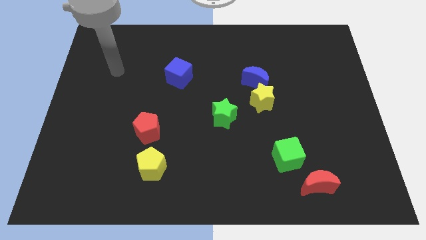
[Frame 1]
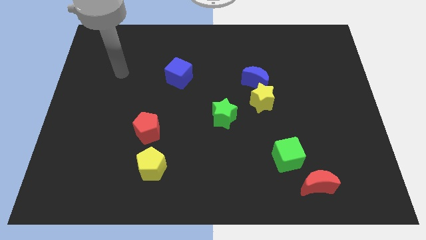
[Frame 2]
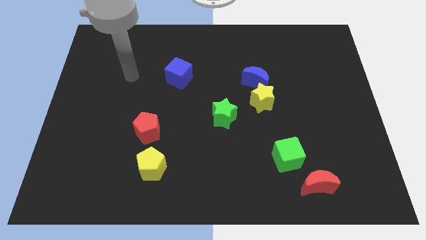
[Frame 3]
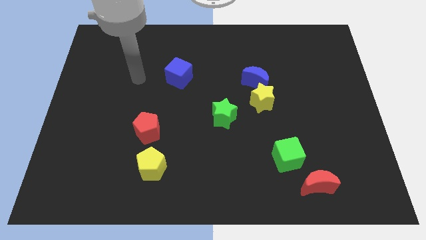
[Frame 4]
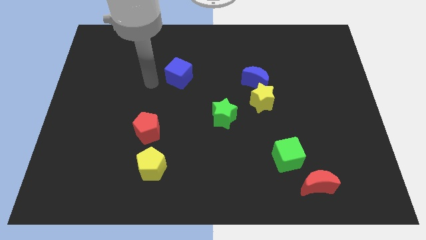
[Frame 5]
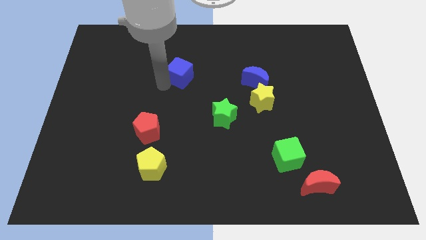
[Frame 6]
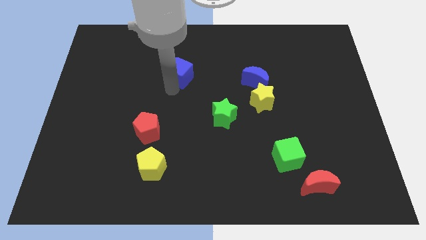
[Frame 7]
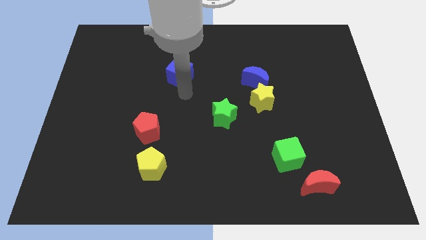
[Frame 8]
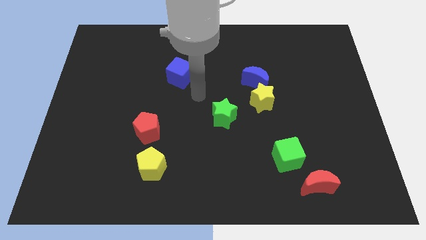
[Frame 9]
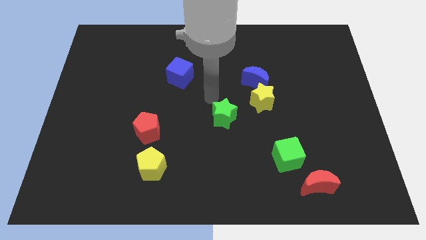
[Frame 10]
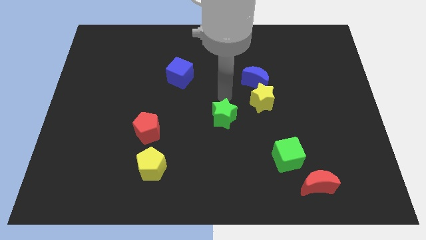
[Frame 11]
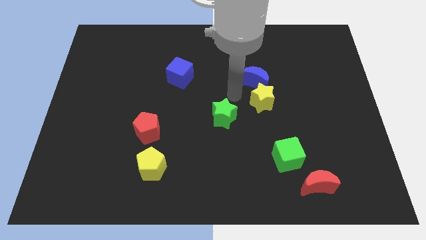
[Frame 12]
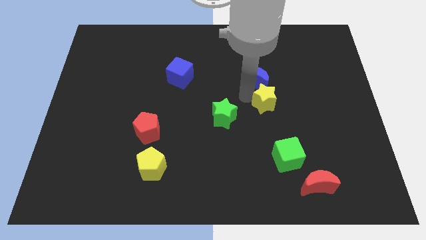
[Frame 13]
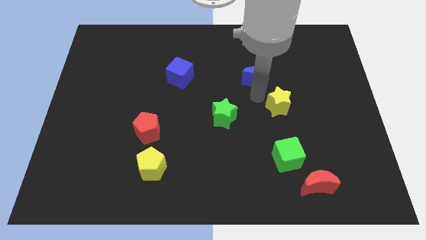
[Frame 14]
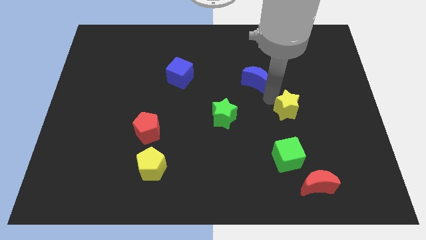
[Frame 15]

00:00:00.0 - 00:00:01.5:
pull the blue moon apart from the yellow star

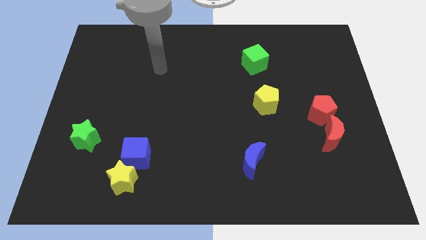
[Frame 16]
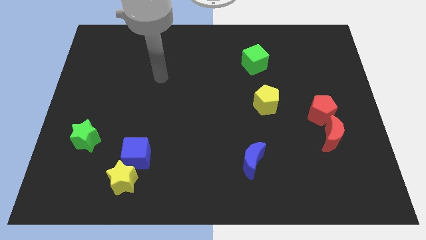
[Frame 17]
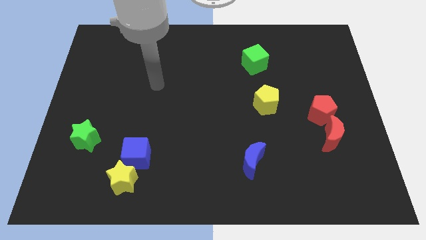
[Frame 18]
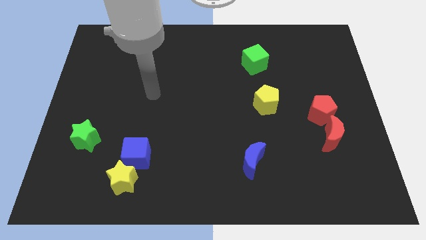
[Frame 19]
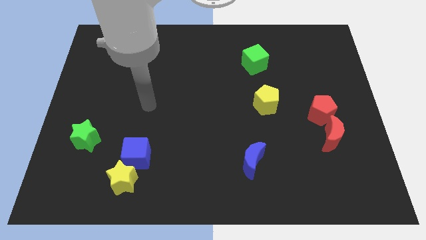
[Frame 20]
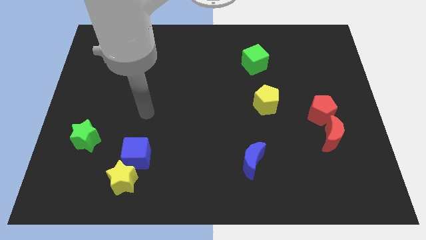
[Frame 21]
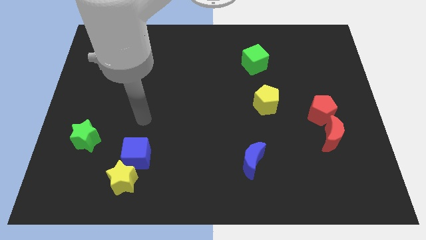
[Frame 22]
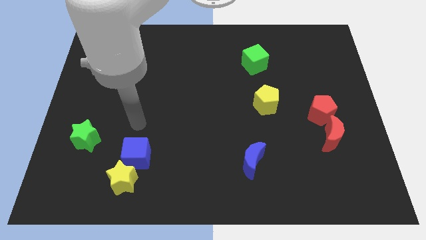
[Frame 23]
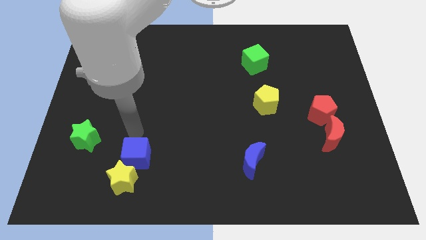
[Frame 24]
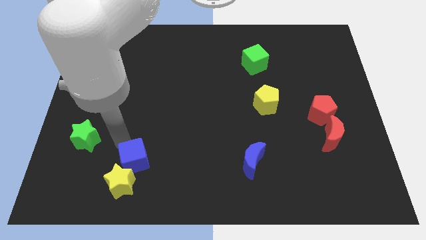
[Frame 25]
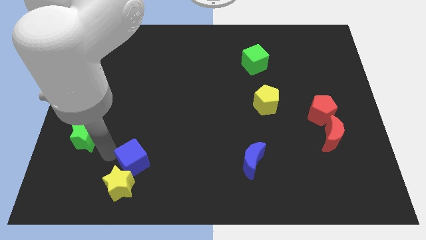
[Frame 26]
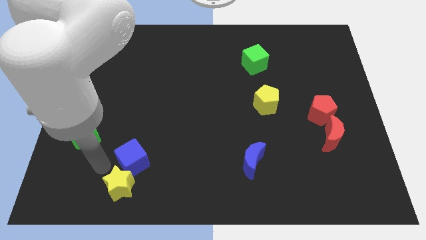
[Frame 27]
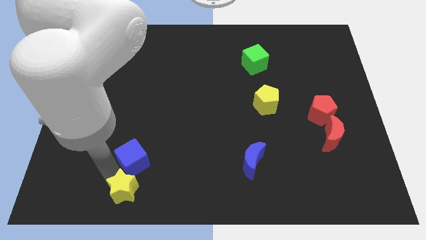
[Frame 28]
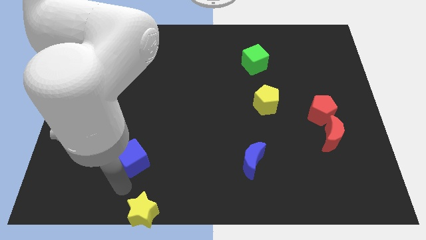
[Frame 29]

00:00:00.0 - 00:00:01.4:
pull the blue cube apart from the yellow star

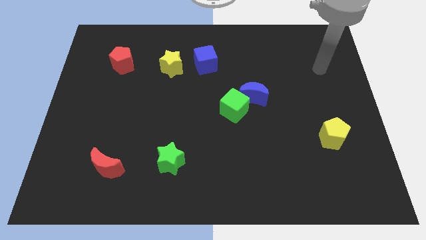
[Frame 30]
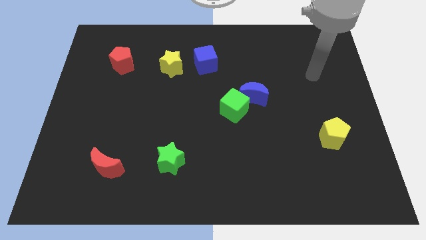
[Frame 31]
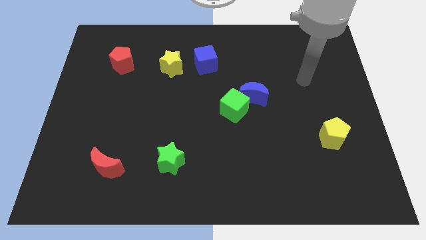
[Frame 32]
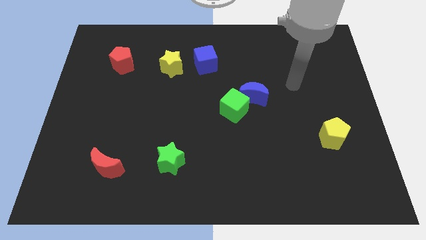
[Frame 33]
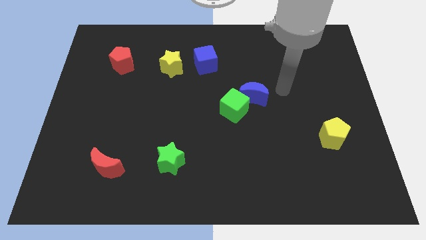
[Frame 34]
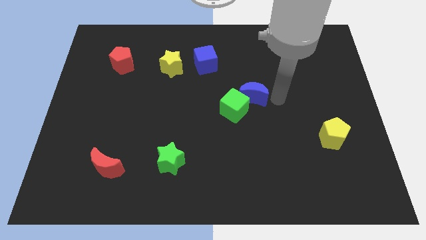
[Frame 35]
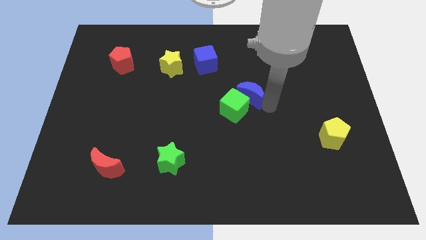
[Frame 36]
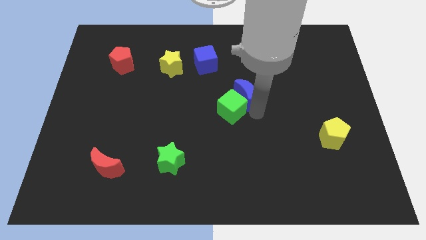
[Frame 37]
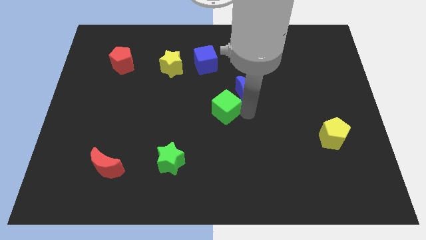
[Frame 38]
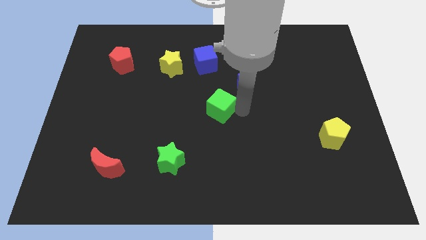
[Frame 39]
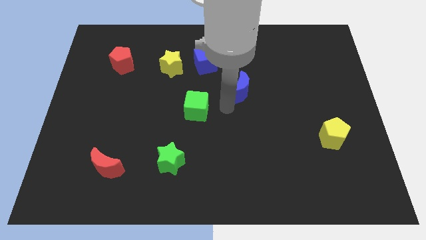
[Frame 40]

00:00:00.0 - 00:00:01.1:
separate the blue moon from the green cube

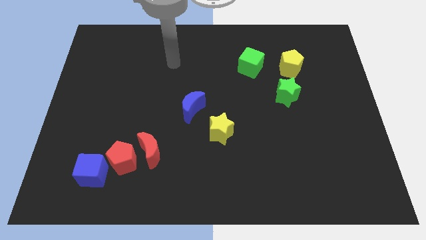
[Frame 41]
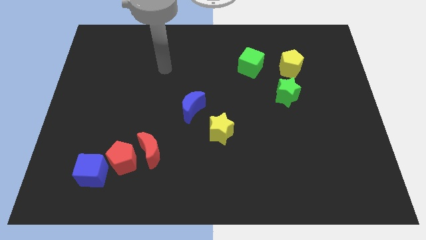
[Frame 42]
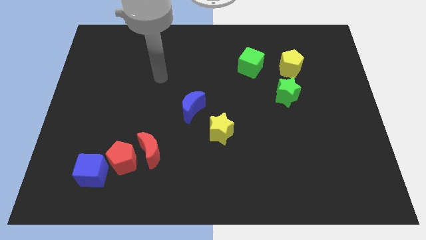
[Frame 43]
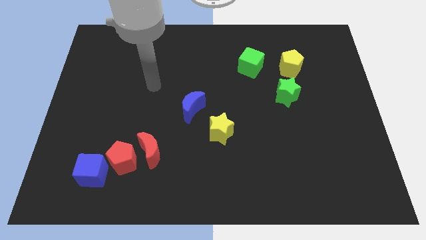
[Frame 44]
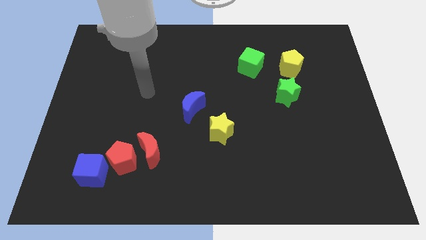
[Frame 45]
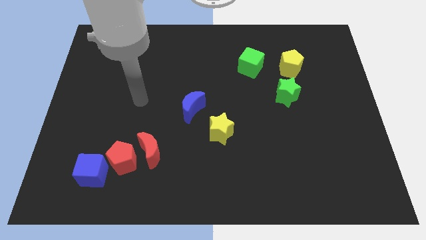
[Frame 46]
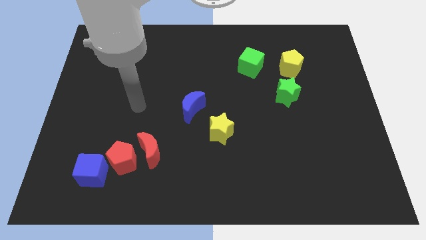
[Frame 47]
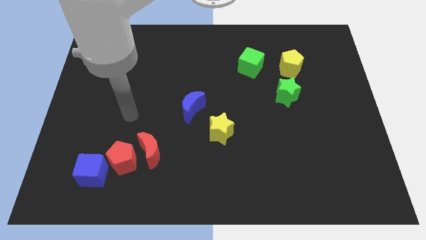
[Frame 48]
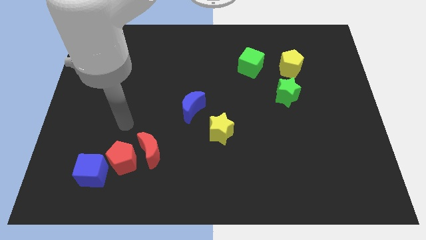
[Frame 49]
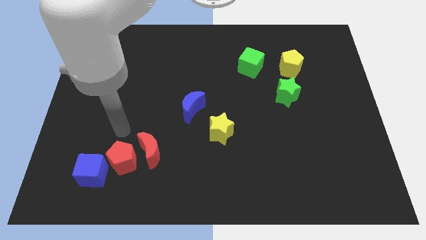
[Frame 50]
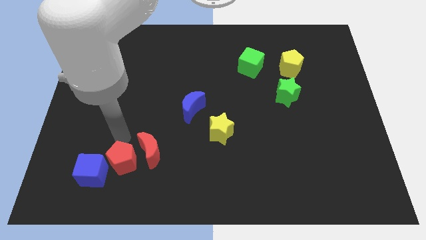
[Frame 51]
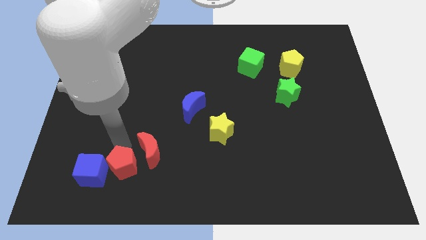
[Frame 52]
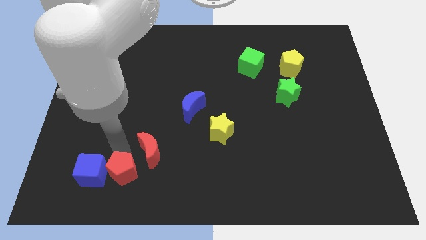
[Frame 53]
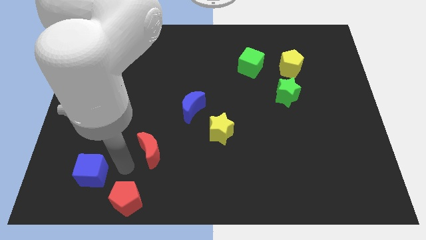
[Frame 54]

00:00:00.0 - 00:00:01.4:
move the red moon away from the red pentagon

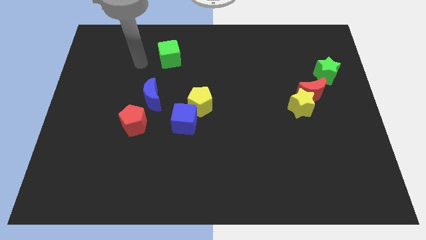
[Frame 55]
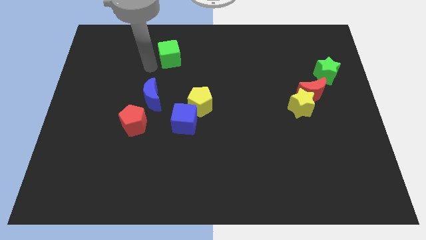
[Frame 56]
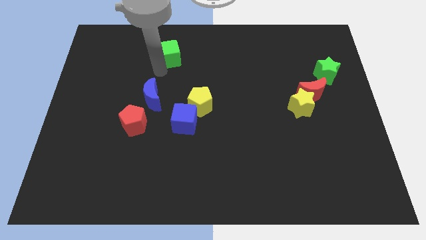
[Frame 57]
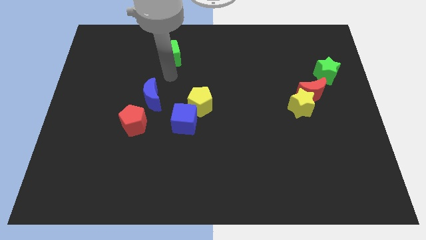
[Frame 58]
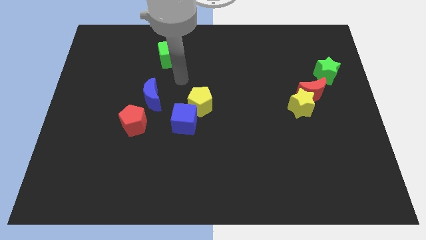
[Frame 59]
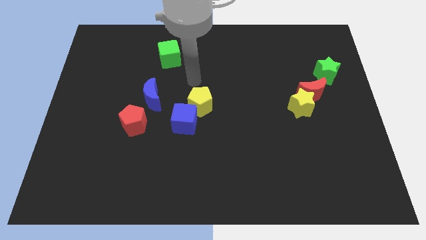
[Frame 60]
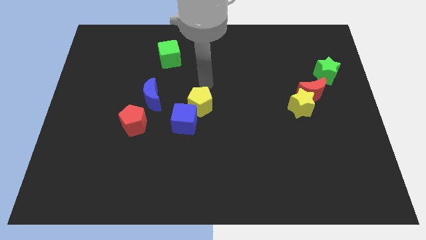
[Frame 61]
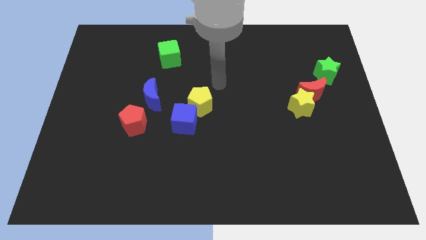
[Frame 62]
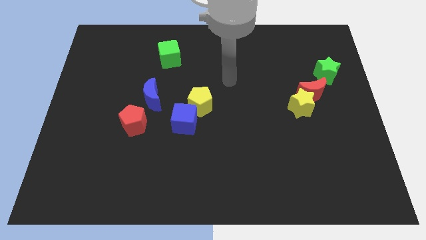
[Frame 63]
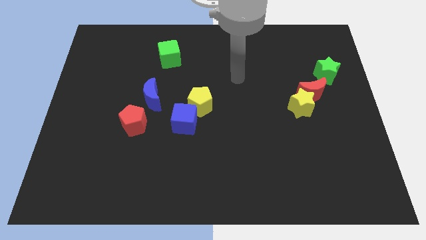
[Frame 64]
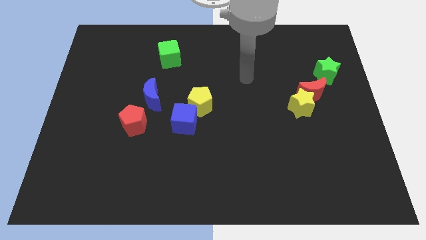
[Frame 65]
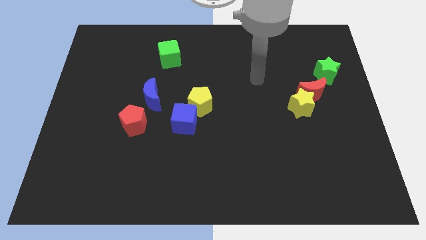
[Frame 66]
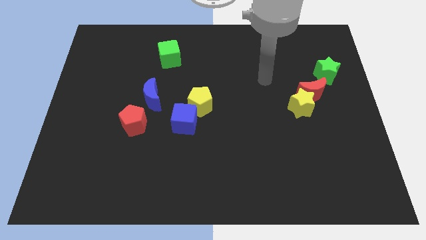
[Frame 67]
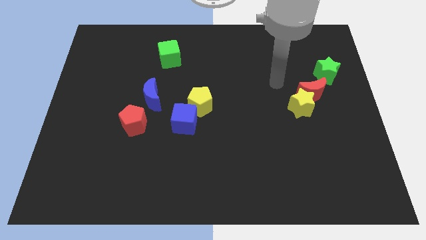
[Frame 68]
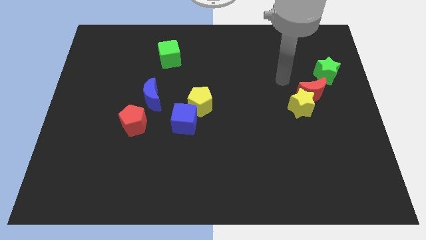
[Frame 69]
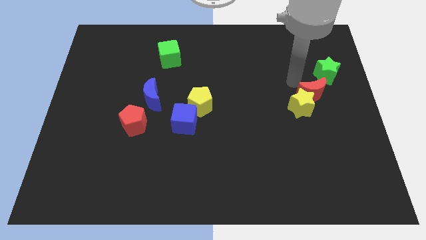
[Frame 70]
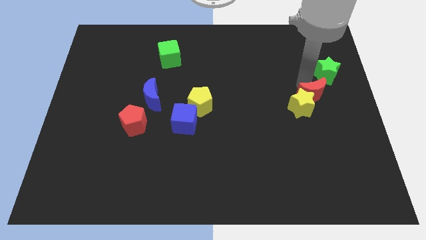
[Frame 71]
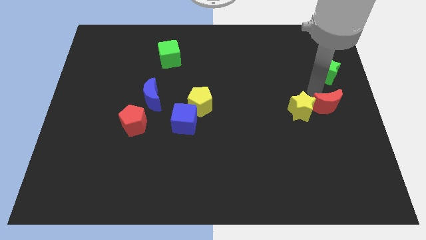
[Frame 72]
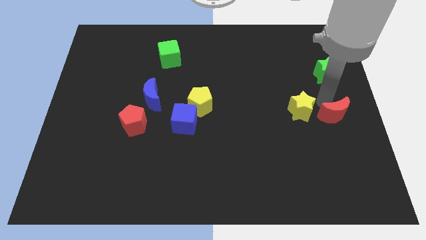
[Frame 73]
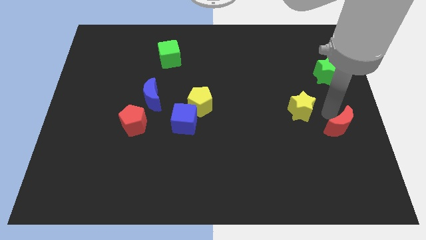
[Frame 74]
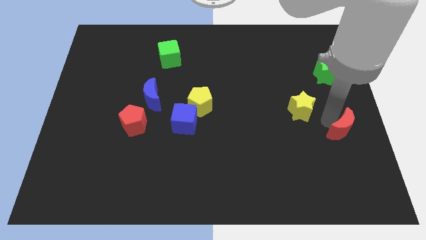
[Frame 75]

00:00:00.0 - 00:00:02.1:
pull the yellow star apart from the red moon

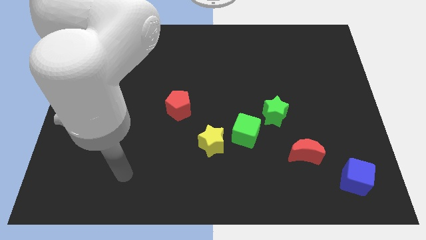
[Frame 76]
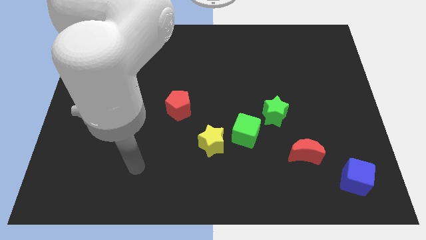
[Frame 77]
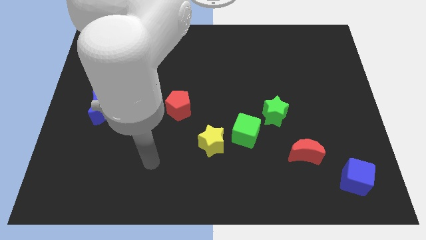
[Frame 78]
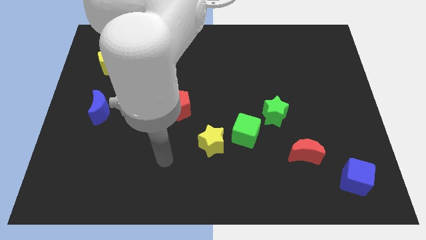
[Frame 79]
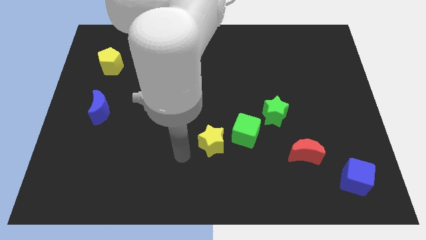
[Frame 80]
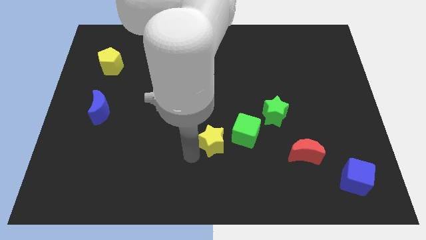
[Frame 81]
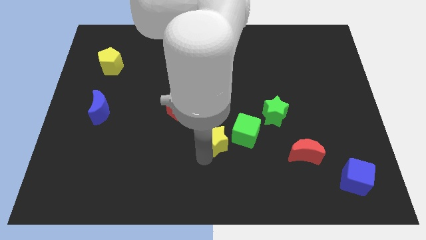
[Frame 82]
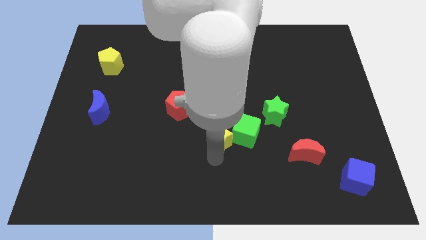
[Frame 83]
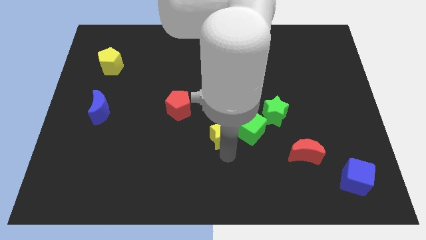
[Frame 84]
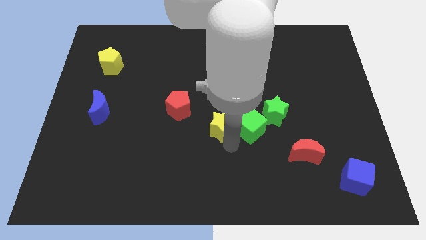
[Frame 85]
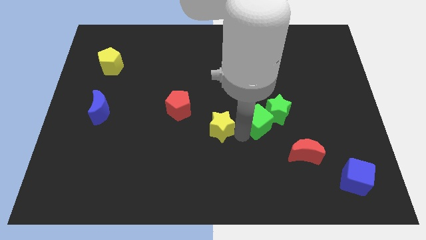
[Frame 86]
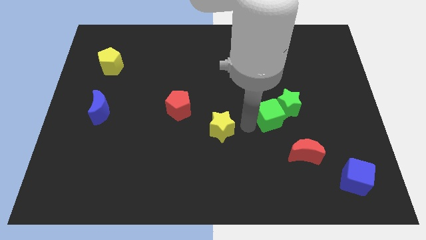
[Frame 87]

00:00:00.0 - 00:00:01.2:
separate the yellow star from the green cube

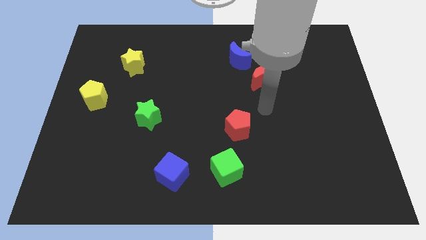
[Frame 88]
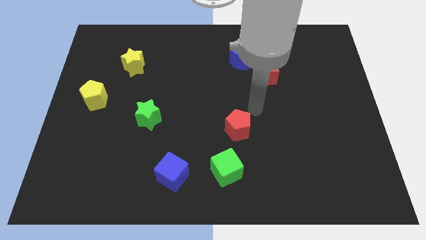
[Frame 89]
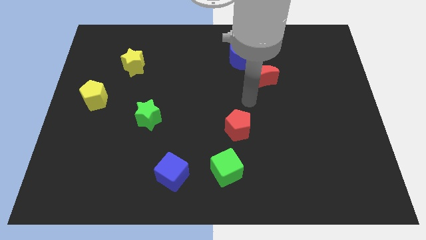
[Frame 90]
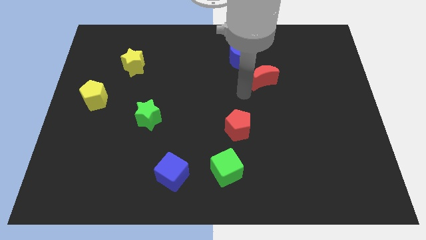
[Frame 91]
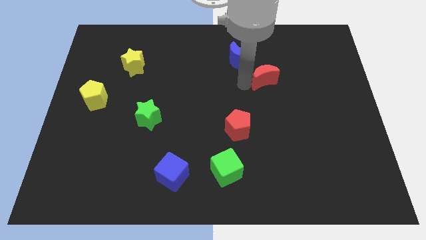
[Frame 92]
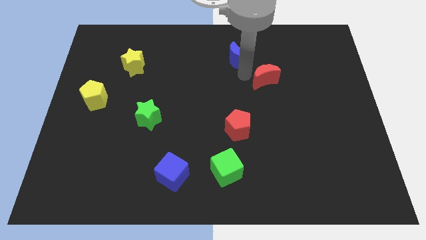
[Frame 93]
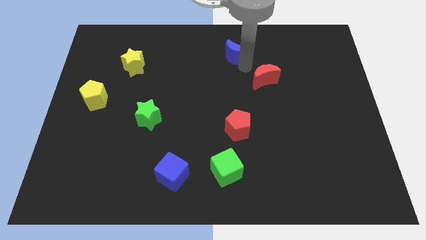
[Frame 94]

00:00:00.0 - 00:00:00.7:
separate the red moon from the blue moon
